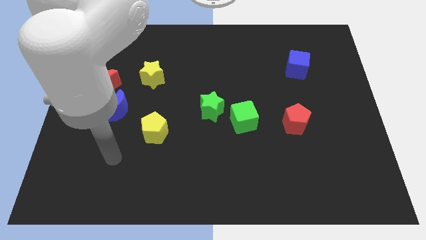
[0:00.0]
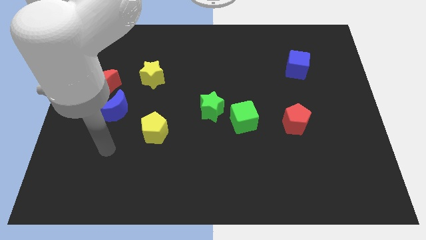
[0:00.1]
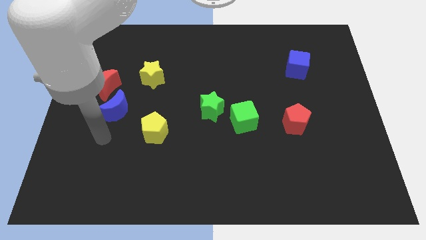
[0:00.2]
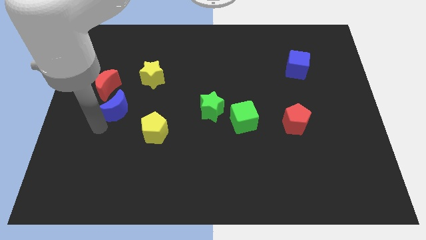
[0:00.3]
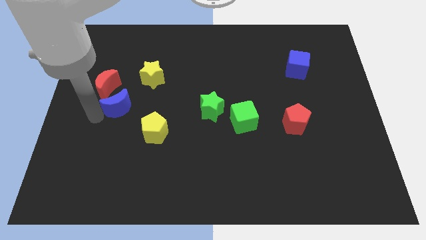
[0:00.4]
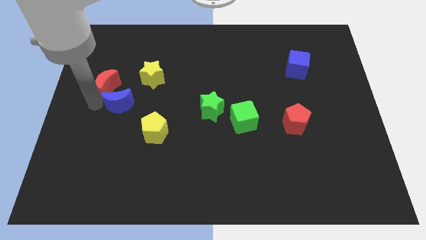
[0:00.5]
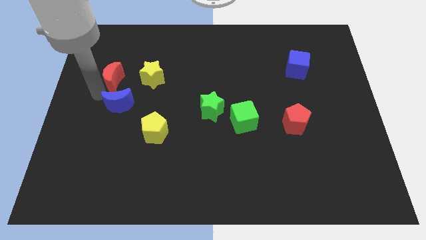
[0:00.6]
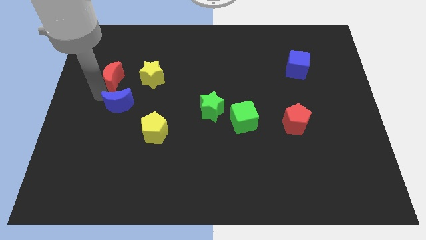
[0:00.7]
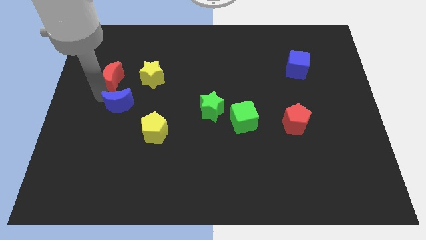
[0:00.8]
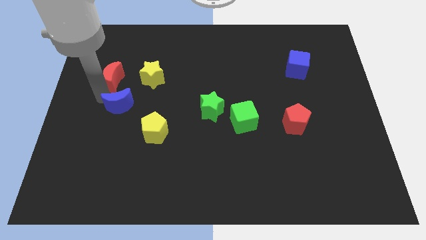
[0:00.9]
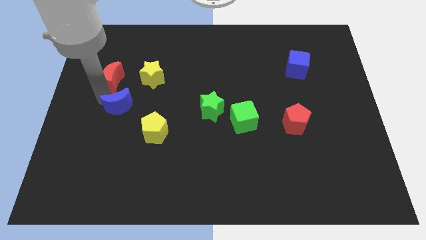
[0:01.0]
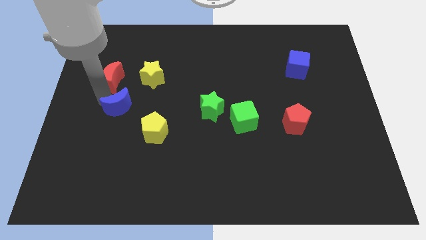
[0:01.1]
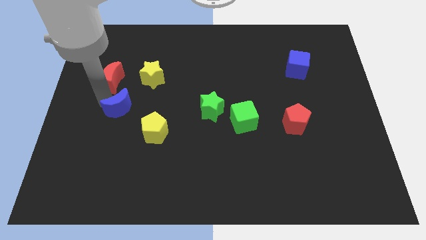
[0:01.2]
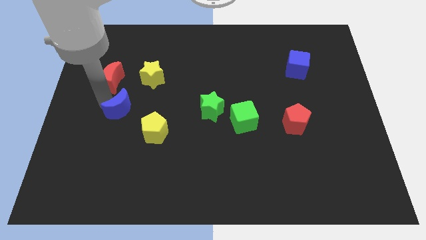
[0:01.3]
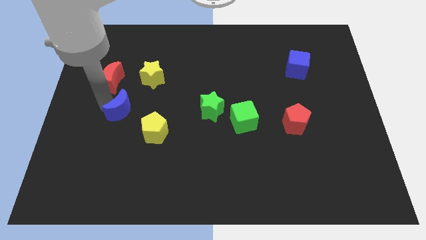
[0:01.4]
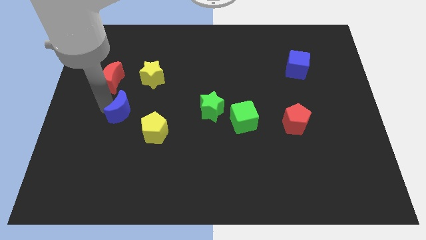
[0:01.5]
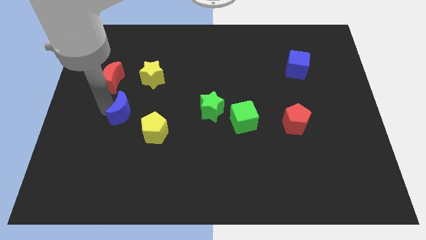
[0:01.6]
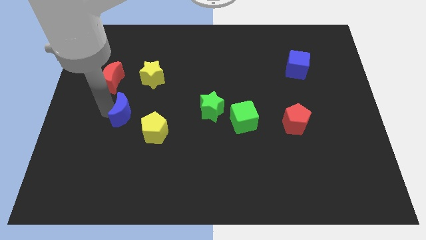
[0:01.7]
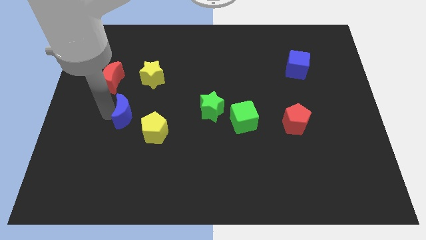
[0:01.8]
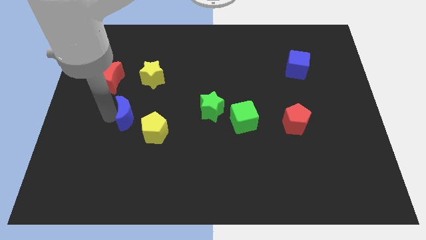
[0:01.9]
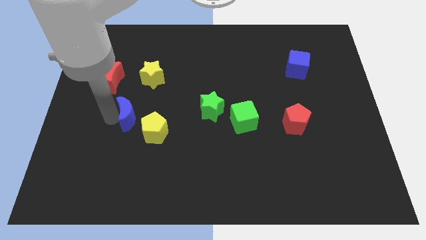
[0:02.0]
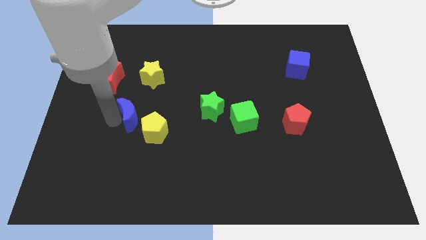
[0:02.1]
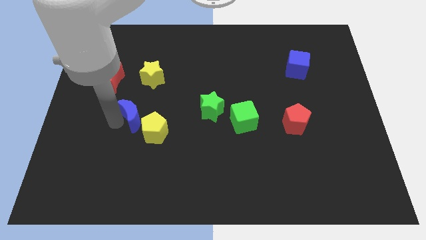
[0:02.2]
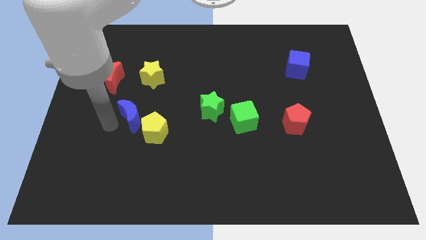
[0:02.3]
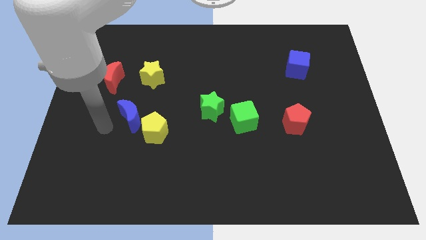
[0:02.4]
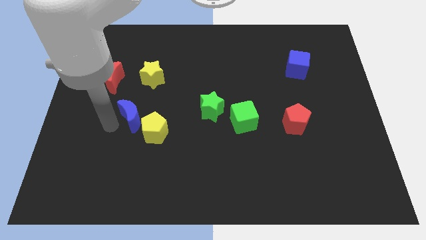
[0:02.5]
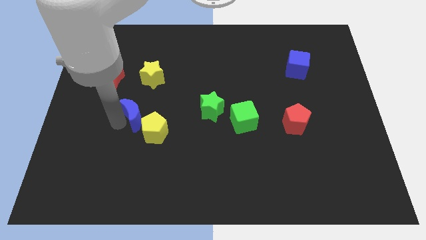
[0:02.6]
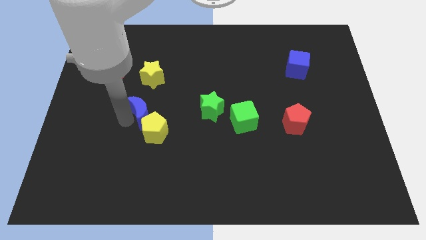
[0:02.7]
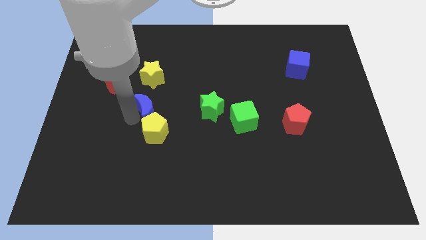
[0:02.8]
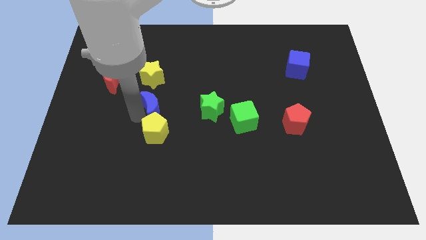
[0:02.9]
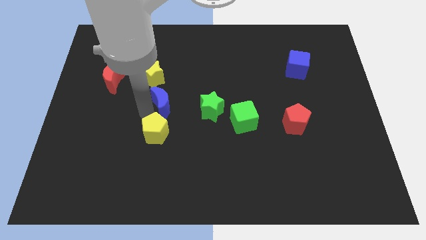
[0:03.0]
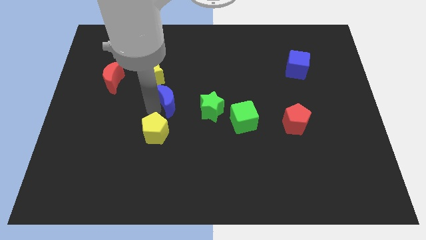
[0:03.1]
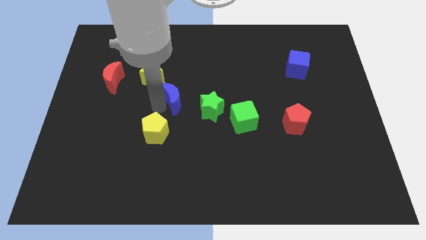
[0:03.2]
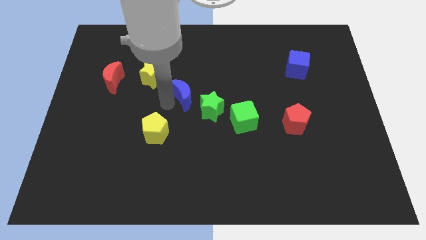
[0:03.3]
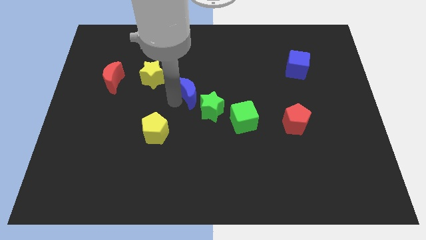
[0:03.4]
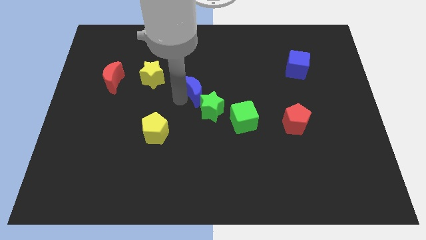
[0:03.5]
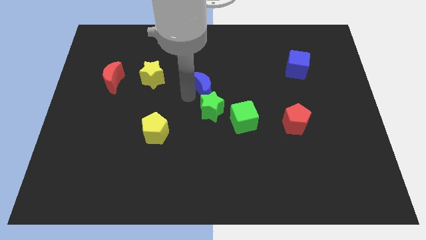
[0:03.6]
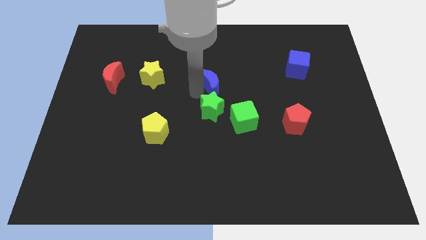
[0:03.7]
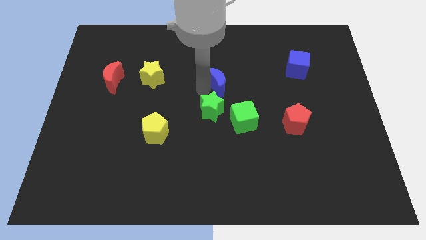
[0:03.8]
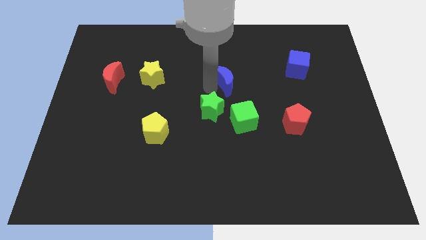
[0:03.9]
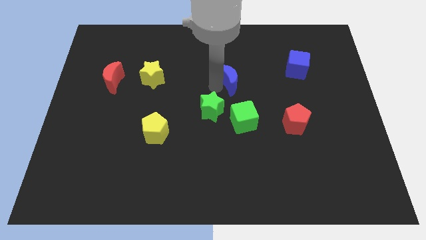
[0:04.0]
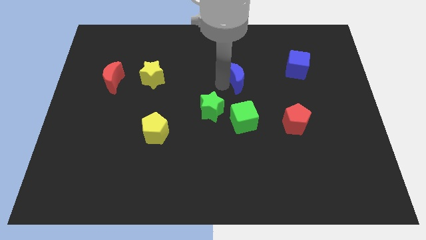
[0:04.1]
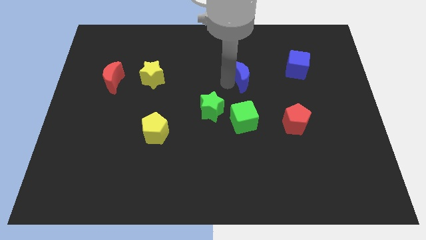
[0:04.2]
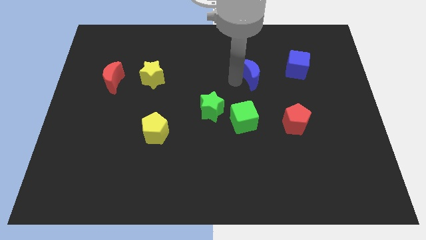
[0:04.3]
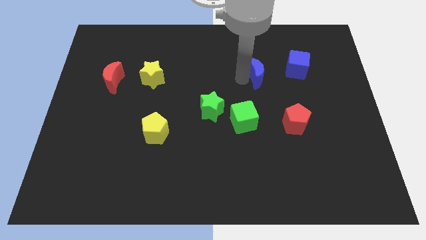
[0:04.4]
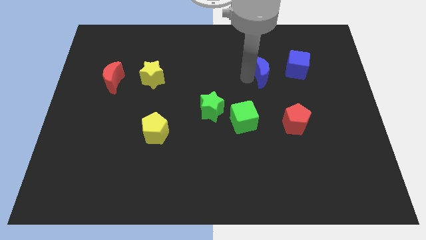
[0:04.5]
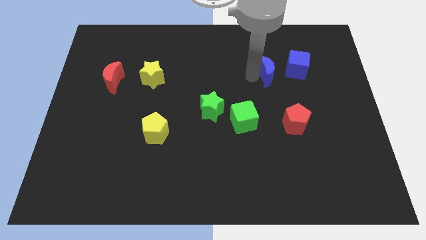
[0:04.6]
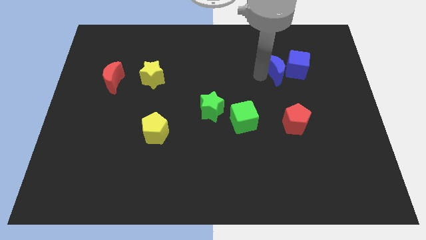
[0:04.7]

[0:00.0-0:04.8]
move the blue moon next to the blue cube

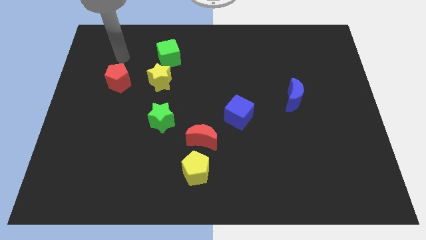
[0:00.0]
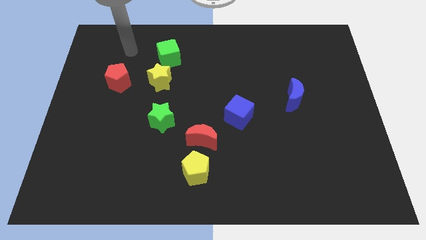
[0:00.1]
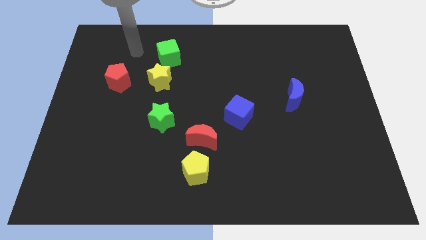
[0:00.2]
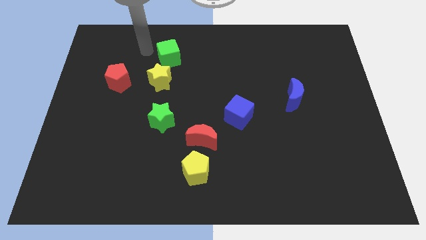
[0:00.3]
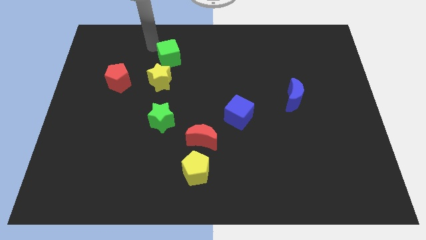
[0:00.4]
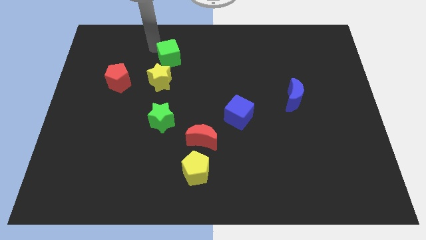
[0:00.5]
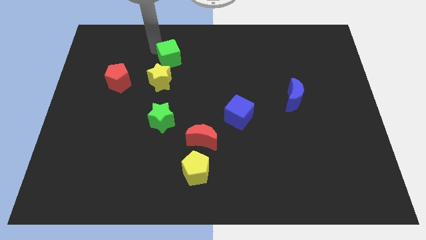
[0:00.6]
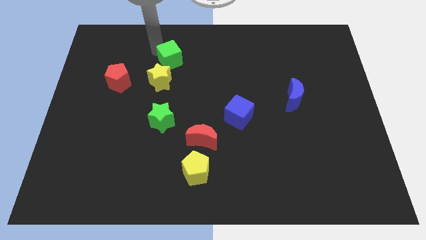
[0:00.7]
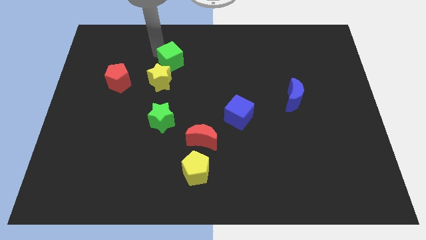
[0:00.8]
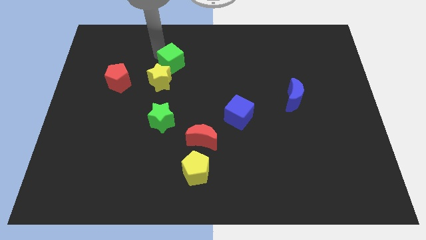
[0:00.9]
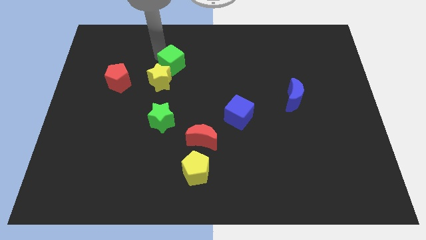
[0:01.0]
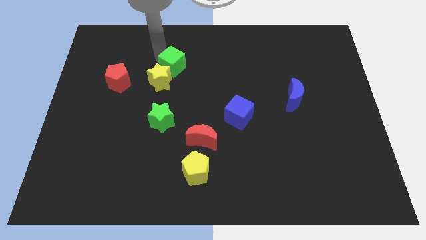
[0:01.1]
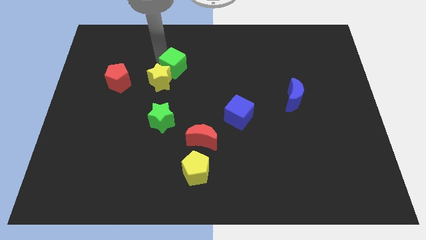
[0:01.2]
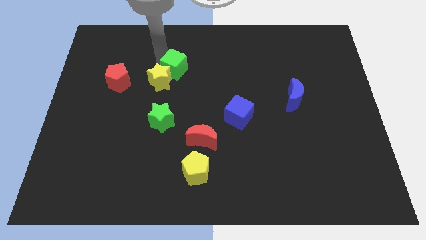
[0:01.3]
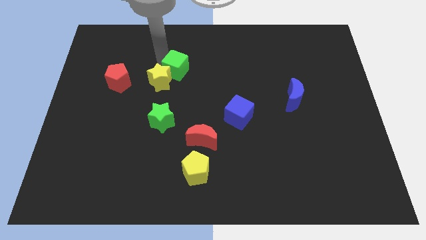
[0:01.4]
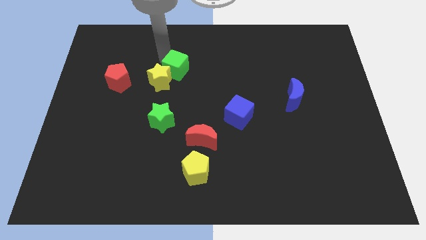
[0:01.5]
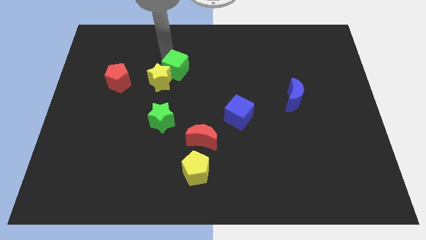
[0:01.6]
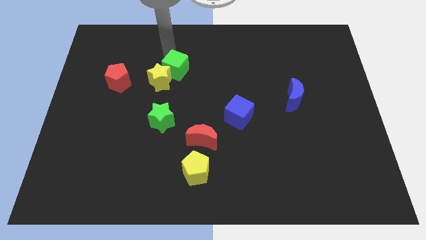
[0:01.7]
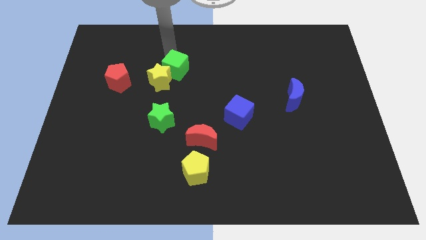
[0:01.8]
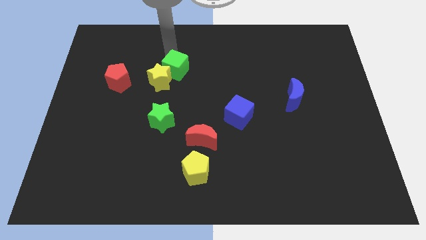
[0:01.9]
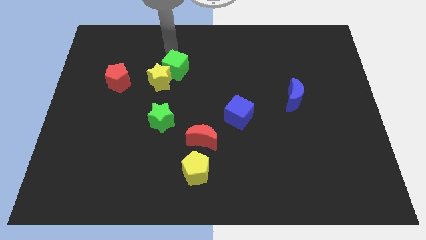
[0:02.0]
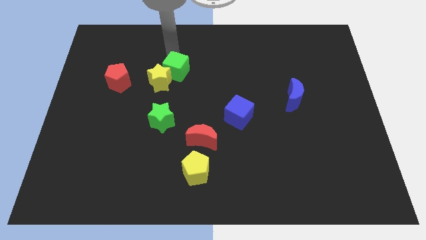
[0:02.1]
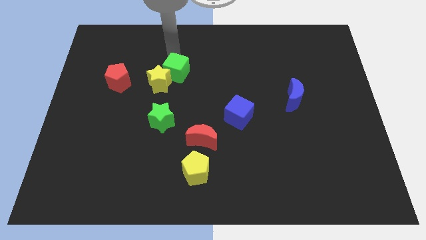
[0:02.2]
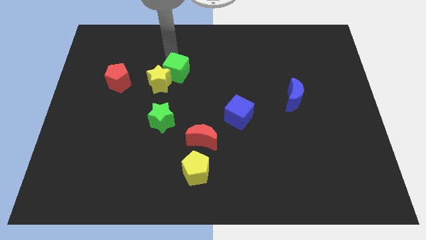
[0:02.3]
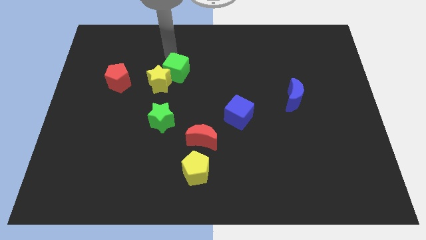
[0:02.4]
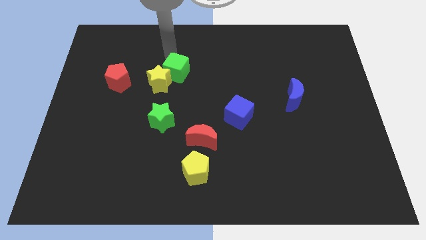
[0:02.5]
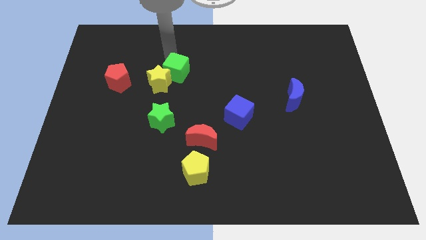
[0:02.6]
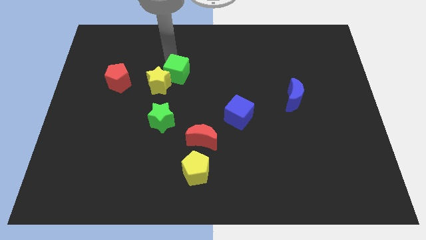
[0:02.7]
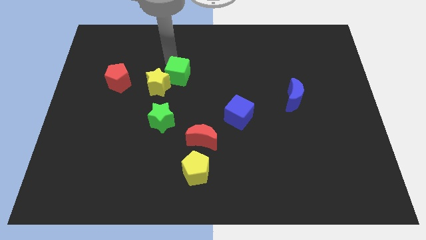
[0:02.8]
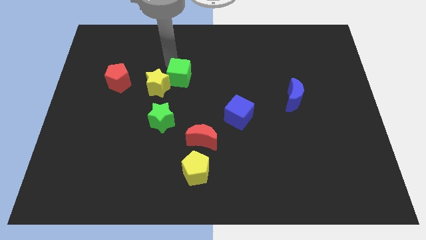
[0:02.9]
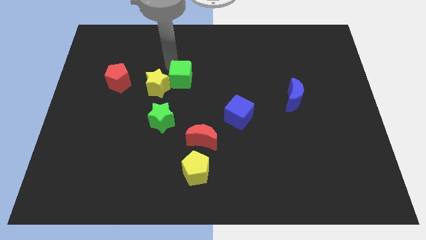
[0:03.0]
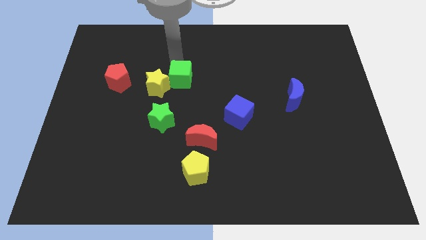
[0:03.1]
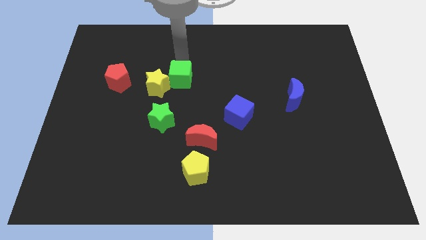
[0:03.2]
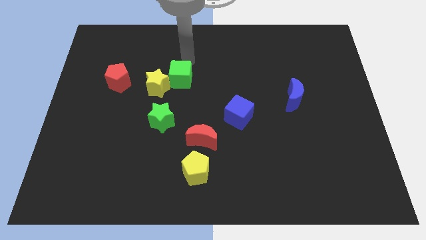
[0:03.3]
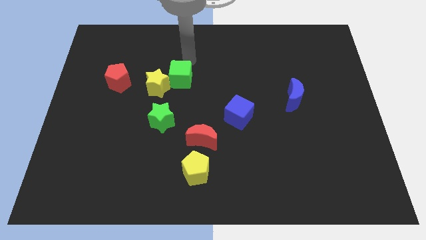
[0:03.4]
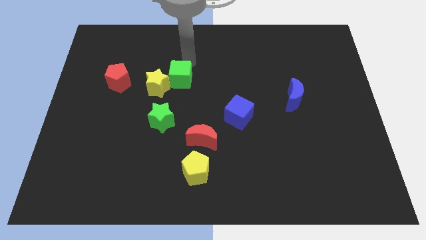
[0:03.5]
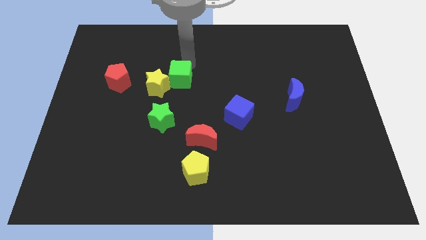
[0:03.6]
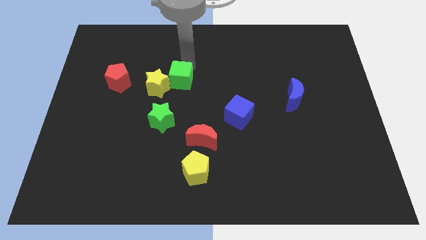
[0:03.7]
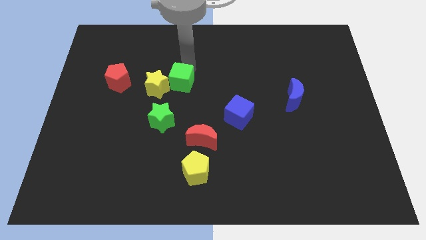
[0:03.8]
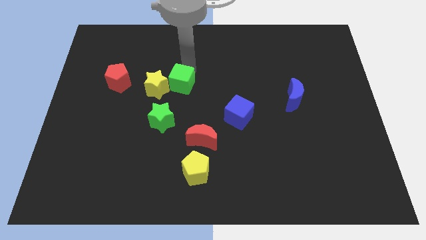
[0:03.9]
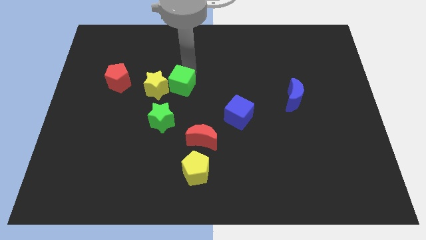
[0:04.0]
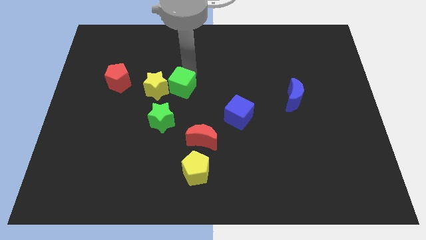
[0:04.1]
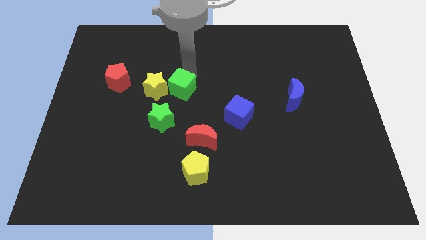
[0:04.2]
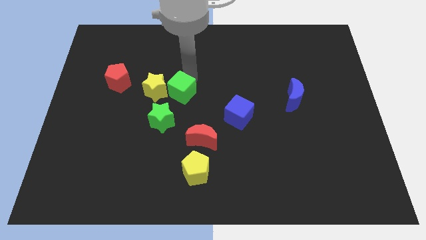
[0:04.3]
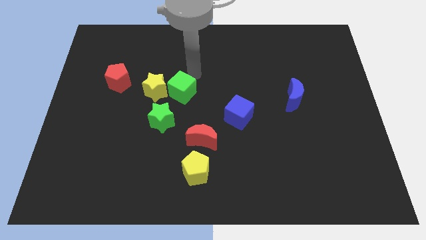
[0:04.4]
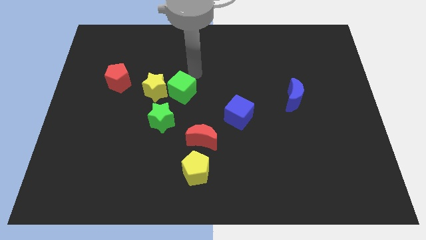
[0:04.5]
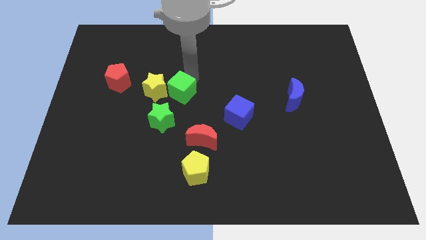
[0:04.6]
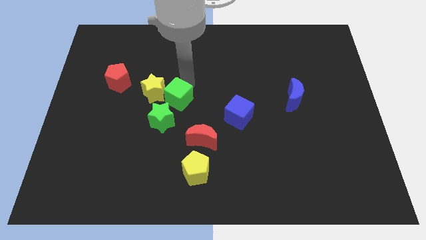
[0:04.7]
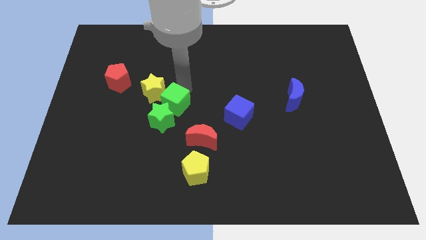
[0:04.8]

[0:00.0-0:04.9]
put the green cube close to the green star
